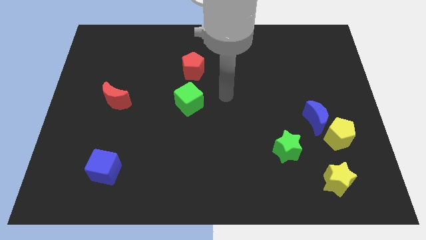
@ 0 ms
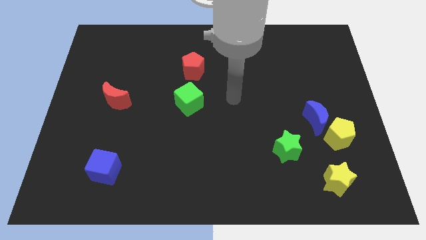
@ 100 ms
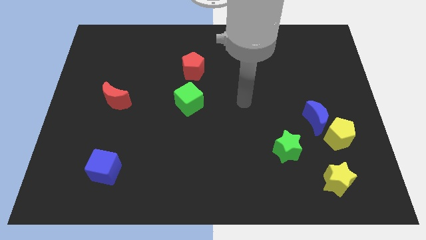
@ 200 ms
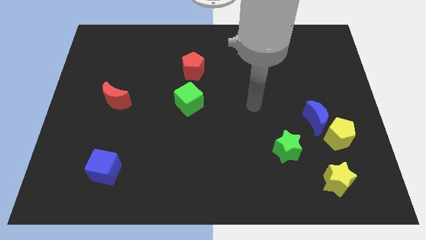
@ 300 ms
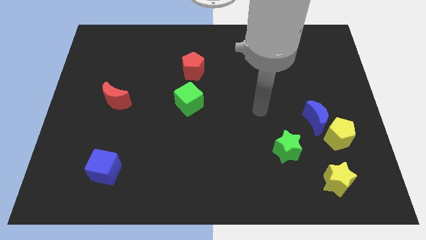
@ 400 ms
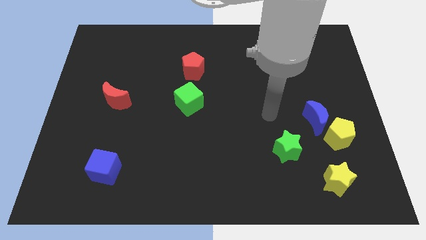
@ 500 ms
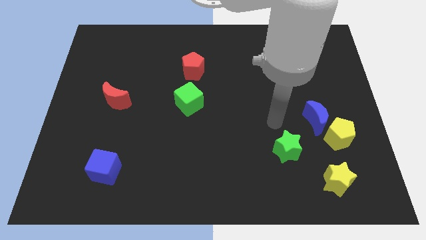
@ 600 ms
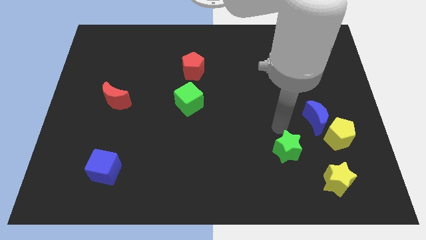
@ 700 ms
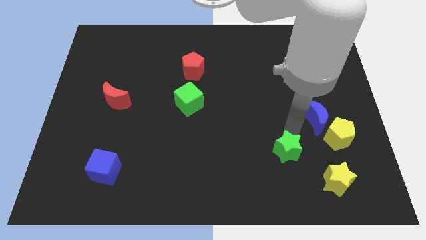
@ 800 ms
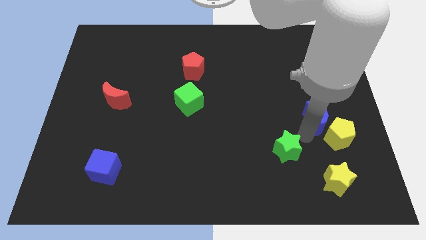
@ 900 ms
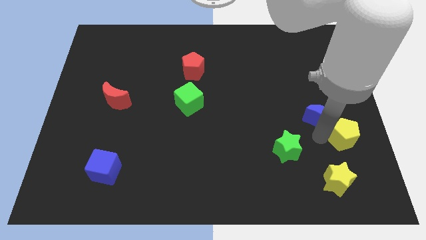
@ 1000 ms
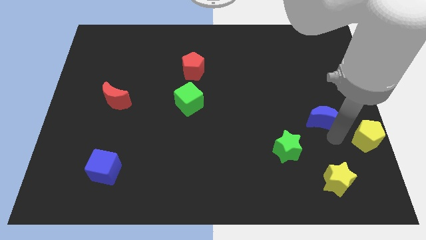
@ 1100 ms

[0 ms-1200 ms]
move the blue moon away from the yellow pentagon

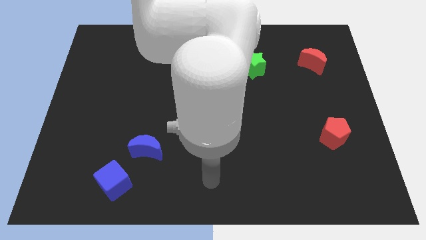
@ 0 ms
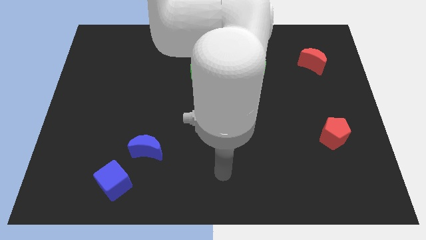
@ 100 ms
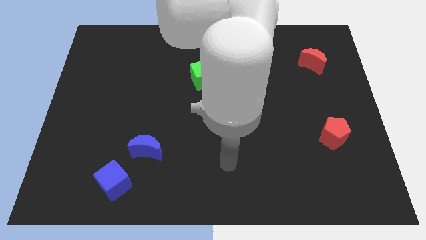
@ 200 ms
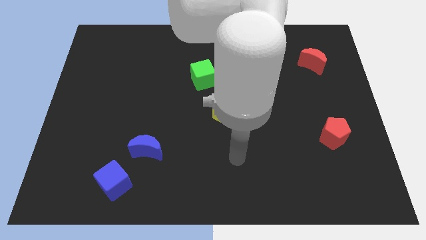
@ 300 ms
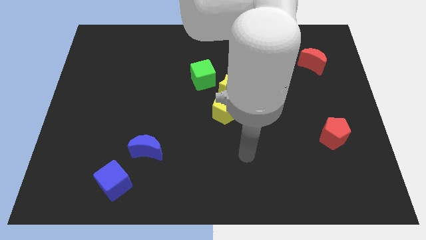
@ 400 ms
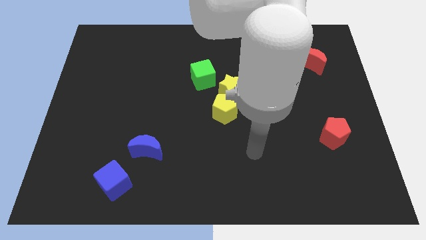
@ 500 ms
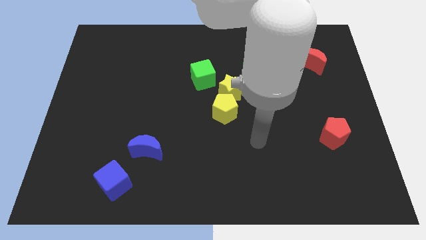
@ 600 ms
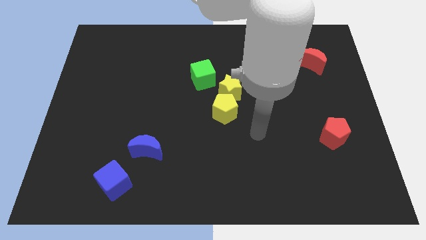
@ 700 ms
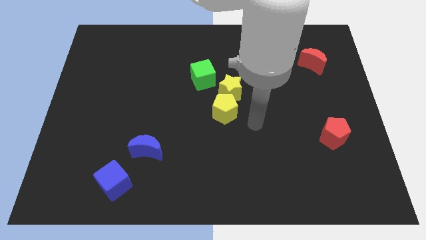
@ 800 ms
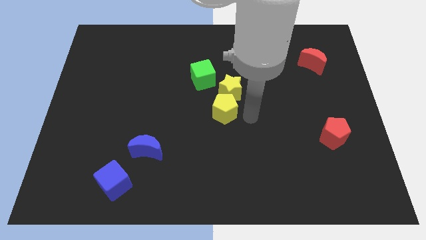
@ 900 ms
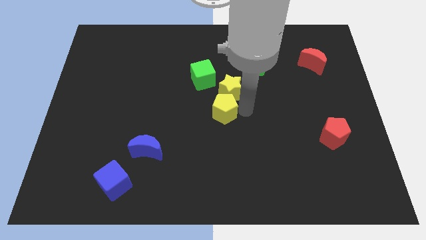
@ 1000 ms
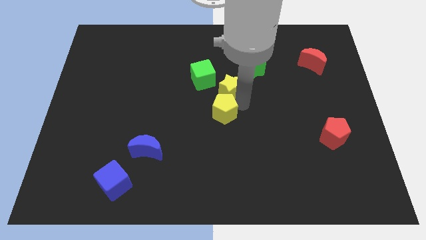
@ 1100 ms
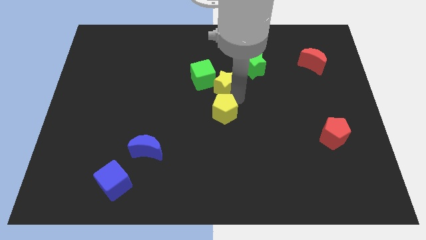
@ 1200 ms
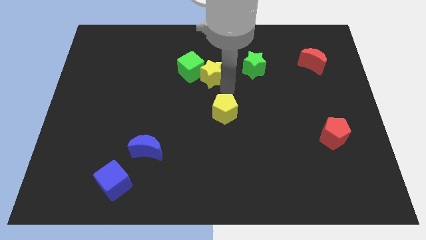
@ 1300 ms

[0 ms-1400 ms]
separate the yellow pentagon from the yellow star

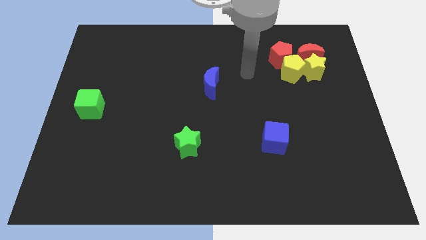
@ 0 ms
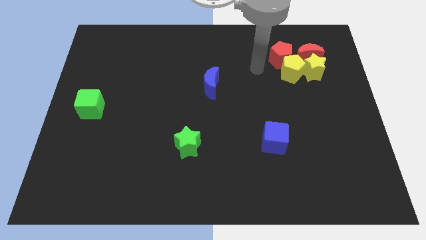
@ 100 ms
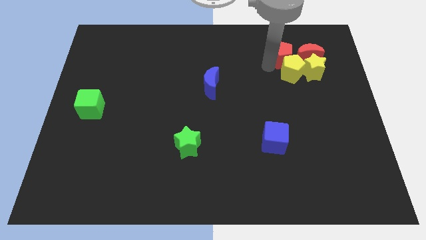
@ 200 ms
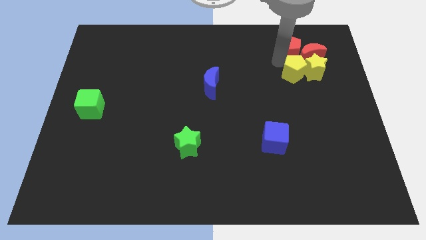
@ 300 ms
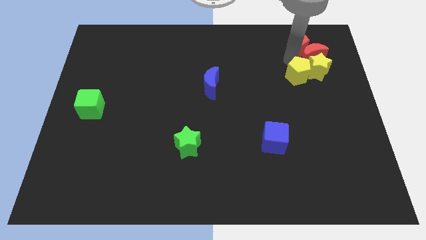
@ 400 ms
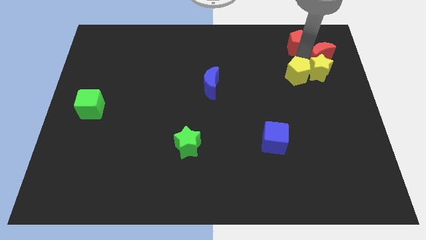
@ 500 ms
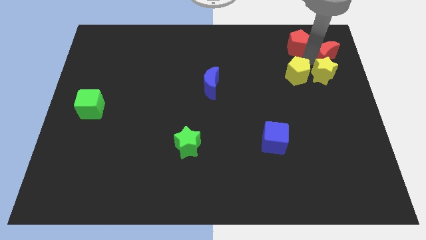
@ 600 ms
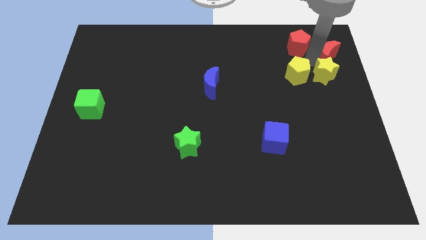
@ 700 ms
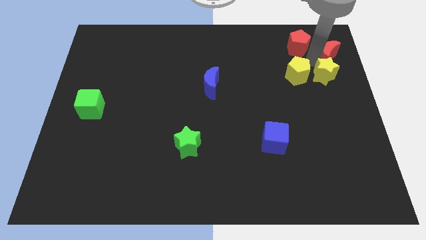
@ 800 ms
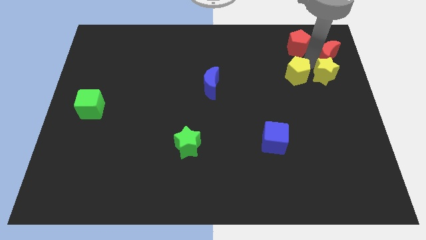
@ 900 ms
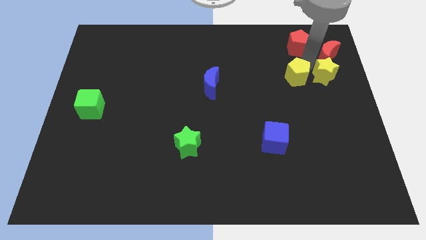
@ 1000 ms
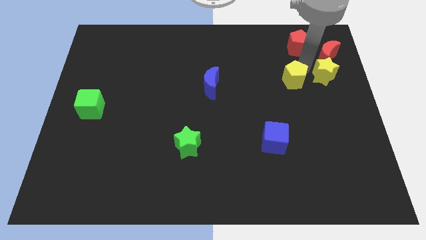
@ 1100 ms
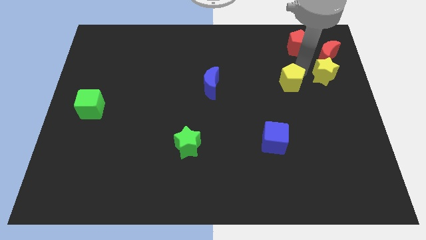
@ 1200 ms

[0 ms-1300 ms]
pull the yellow pentagon apart from the red pentagon, yellow star, and red moon

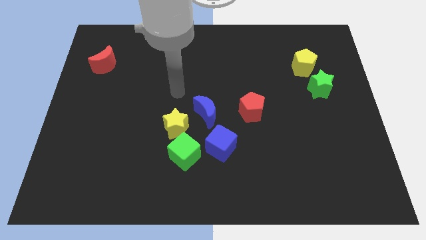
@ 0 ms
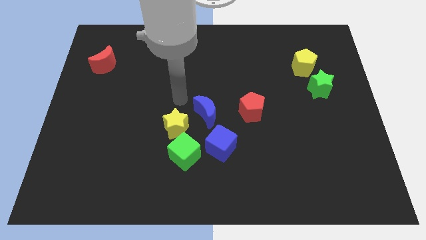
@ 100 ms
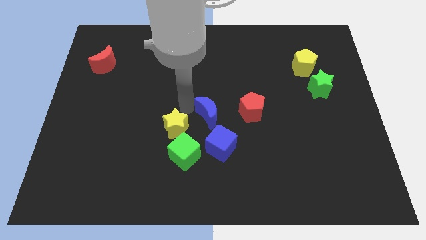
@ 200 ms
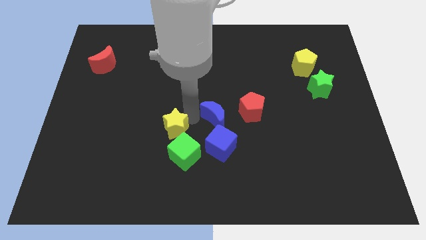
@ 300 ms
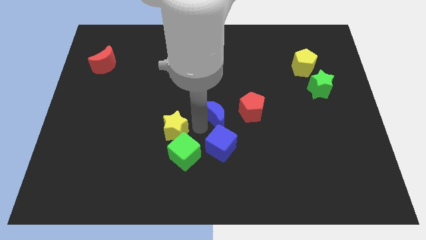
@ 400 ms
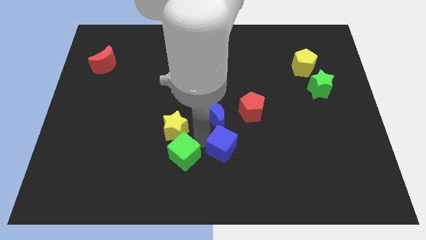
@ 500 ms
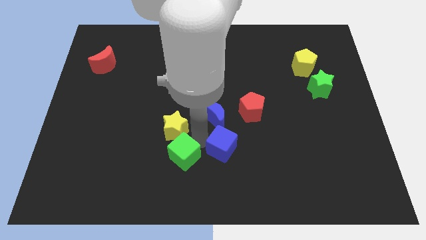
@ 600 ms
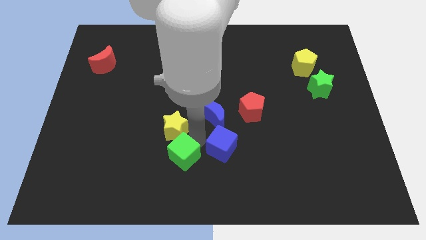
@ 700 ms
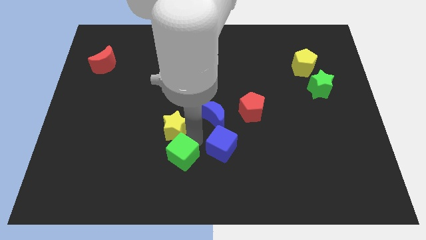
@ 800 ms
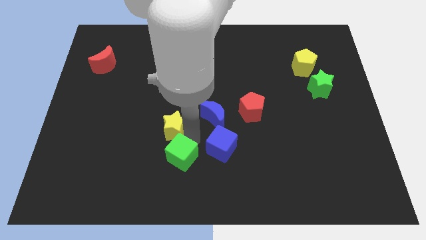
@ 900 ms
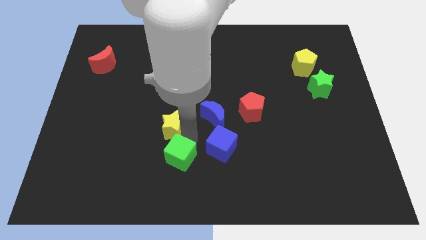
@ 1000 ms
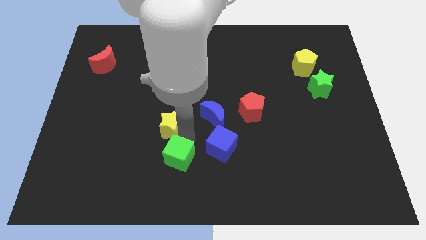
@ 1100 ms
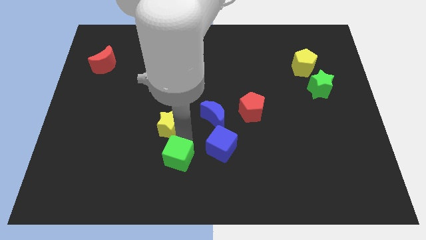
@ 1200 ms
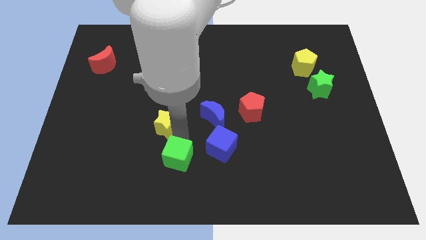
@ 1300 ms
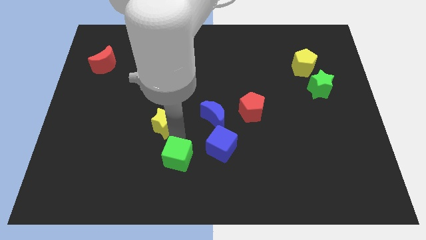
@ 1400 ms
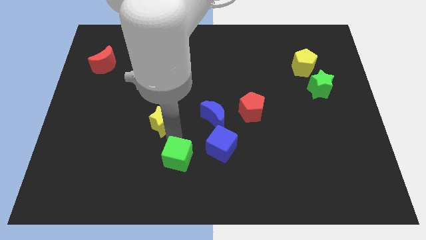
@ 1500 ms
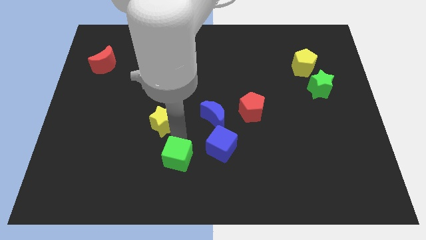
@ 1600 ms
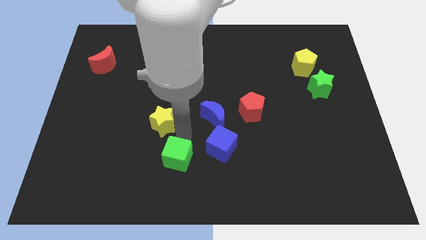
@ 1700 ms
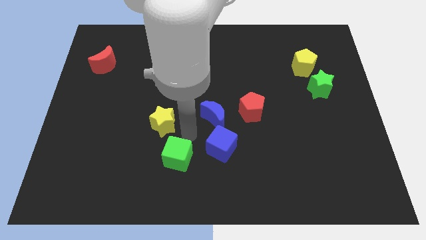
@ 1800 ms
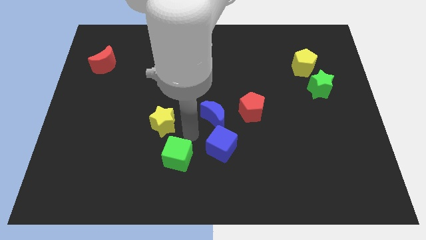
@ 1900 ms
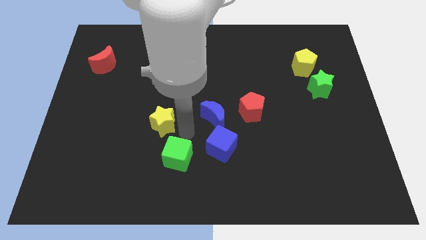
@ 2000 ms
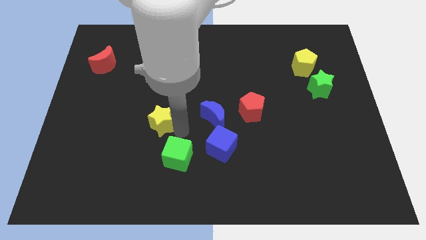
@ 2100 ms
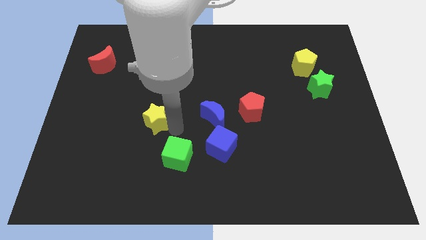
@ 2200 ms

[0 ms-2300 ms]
separate the yellow star from the green cube and blue moon

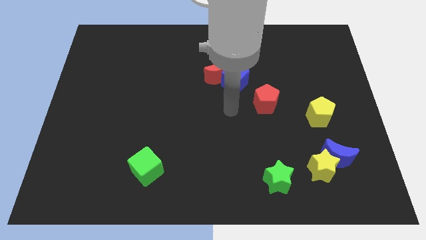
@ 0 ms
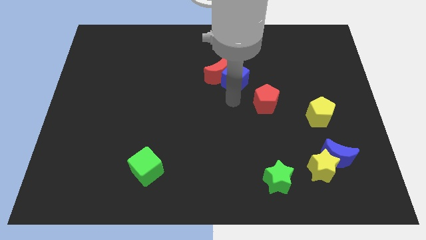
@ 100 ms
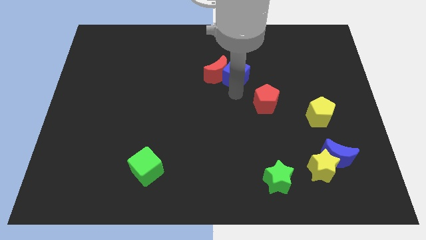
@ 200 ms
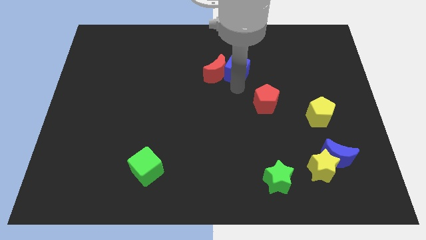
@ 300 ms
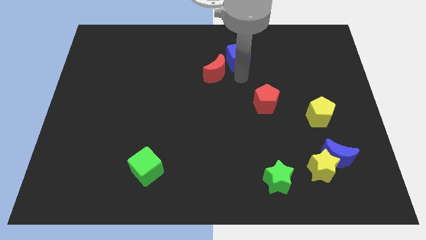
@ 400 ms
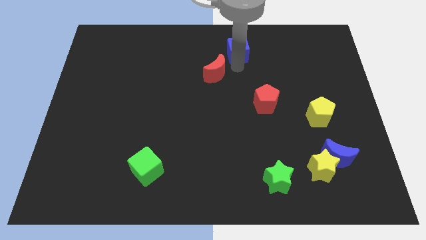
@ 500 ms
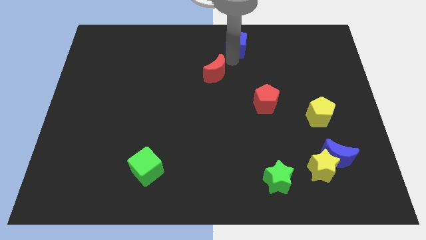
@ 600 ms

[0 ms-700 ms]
pull the red moon apart from the blue cube

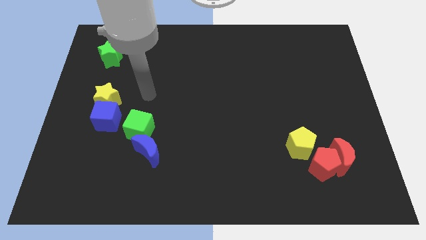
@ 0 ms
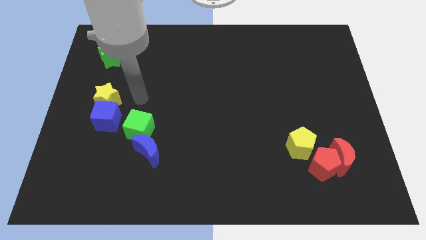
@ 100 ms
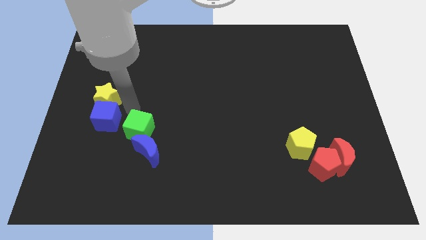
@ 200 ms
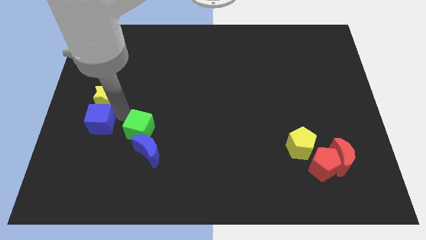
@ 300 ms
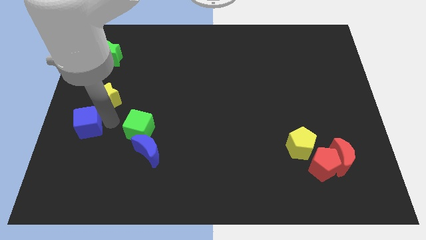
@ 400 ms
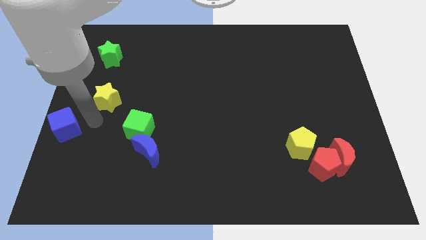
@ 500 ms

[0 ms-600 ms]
separate the yellow star from the blue cube

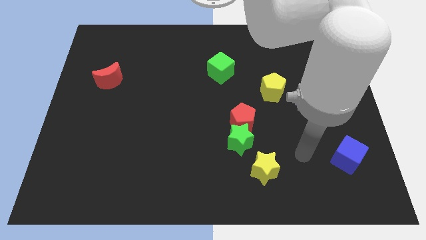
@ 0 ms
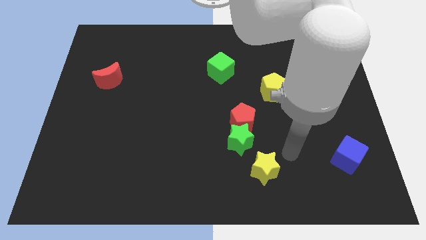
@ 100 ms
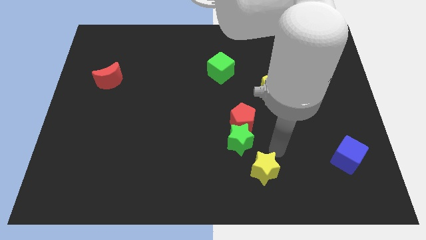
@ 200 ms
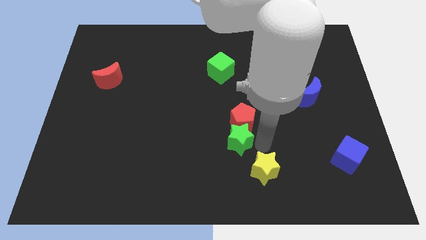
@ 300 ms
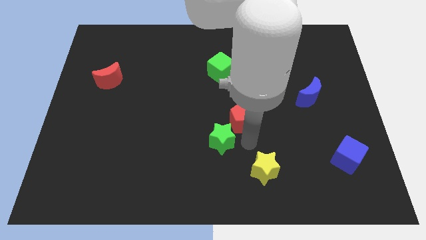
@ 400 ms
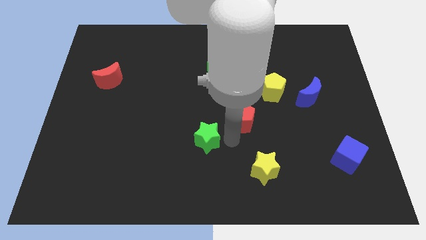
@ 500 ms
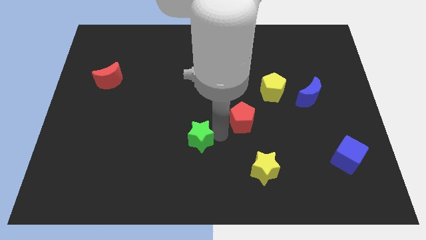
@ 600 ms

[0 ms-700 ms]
move the red pentagon away from the green star

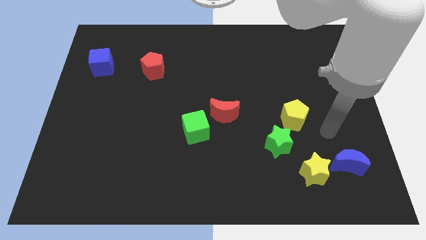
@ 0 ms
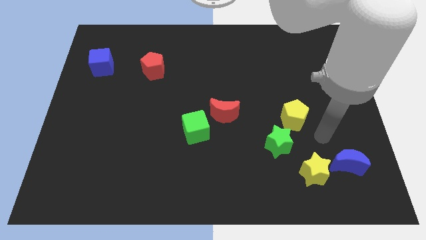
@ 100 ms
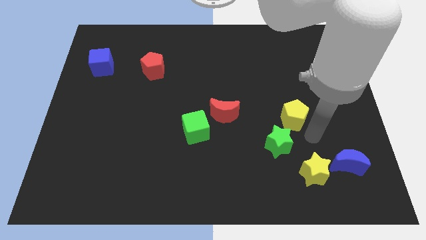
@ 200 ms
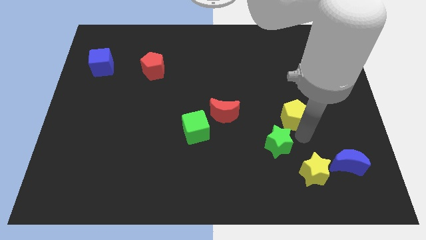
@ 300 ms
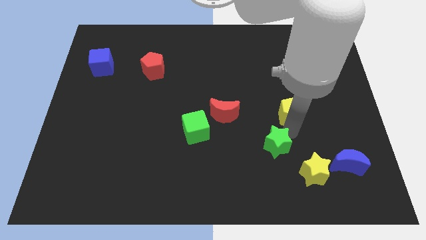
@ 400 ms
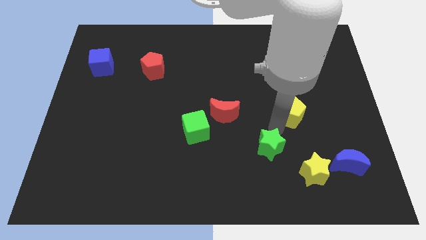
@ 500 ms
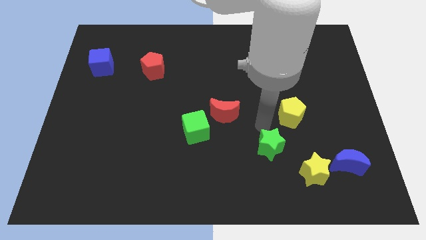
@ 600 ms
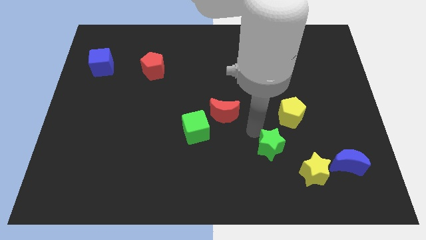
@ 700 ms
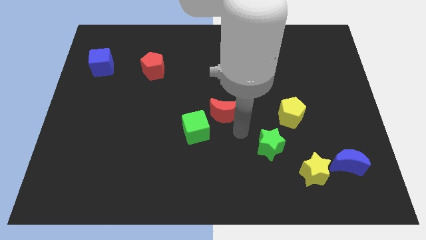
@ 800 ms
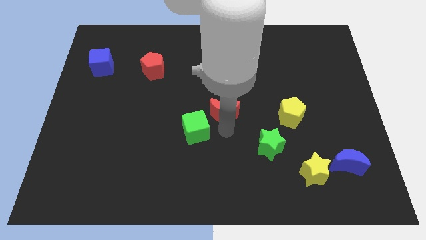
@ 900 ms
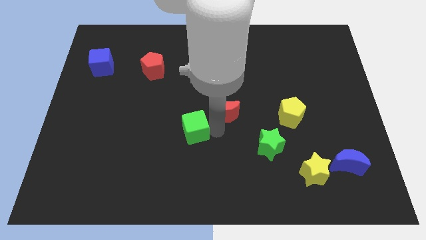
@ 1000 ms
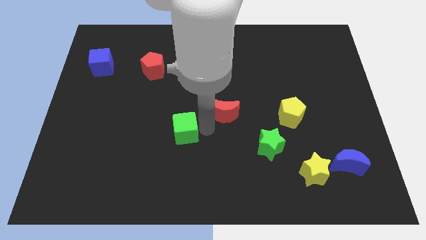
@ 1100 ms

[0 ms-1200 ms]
separate the red moon from the green cube
